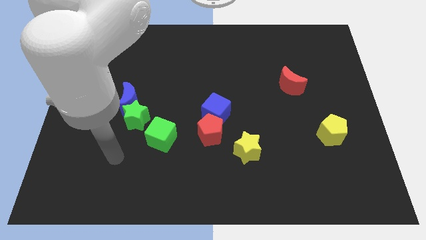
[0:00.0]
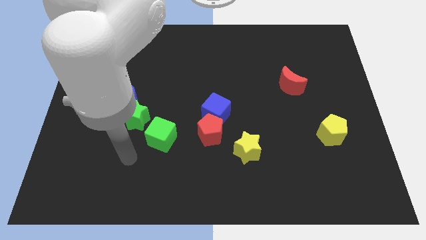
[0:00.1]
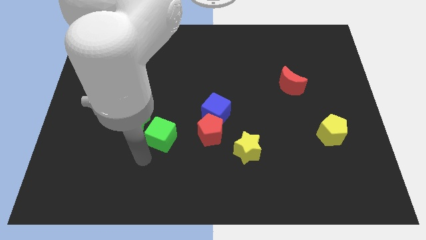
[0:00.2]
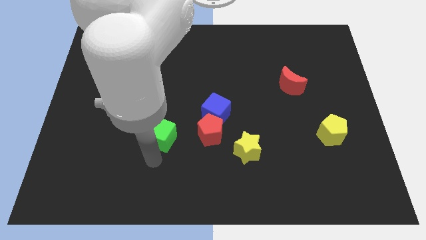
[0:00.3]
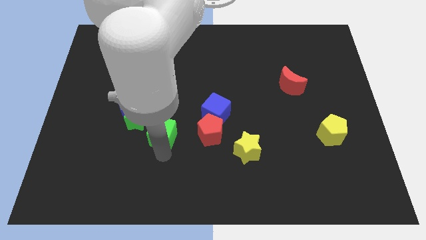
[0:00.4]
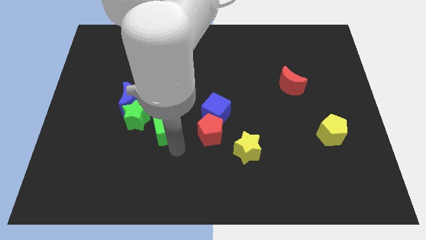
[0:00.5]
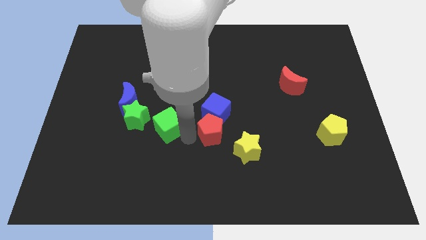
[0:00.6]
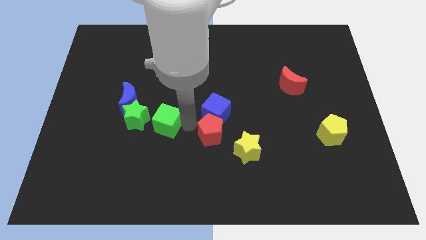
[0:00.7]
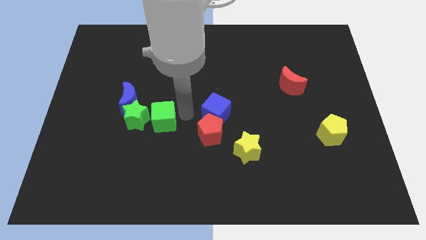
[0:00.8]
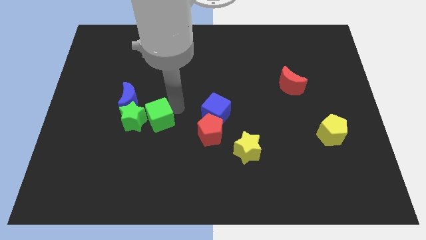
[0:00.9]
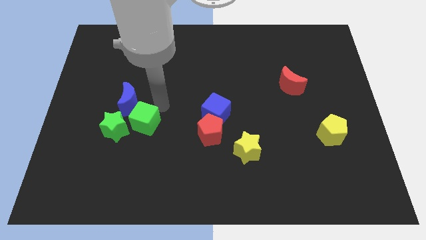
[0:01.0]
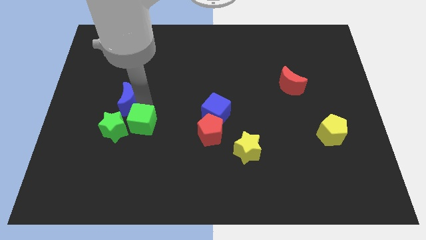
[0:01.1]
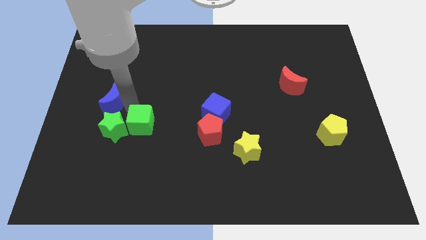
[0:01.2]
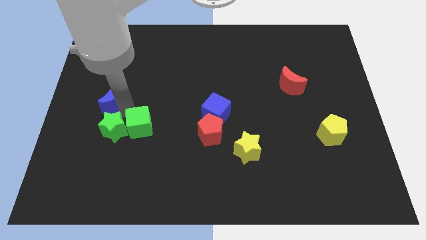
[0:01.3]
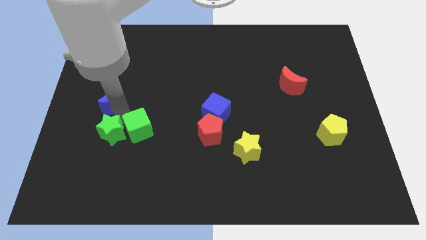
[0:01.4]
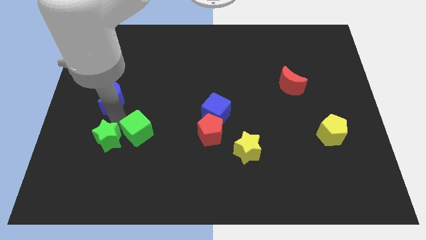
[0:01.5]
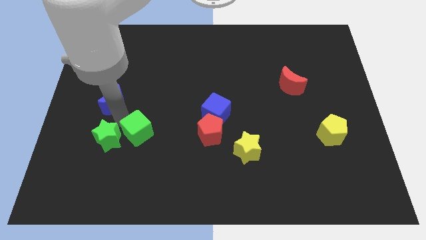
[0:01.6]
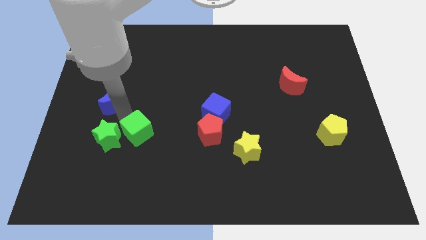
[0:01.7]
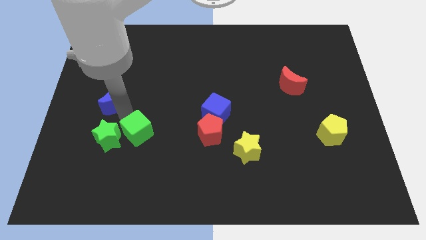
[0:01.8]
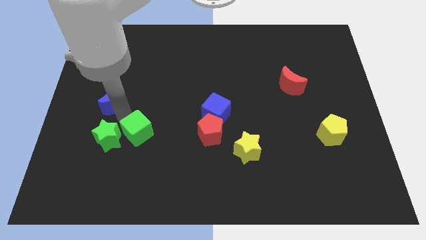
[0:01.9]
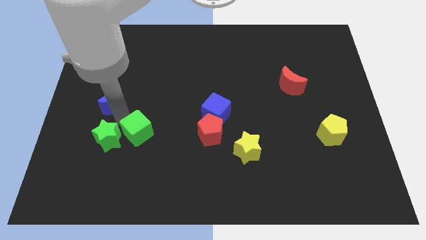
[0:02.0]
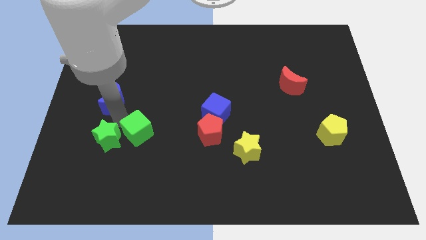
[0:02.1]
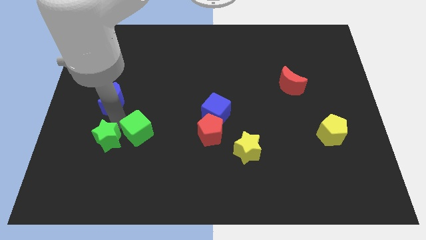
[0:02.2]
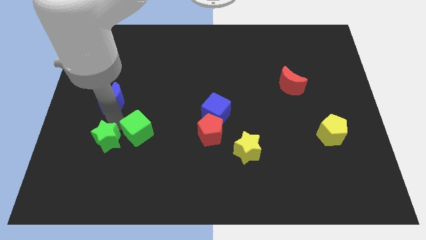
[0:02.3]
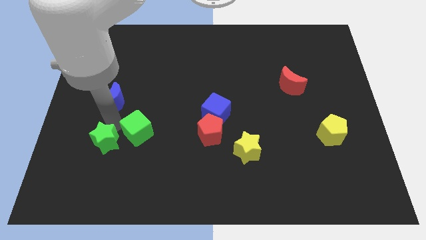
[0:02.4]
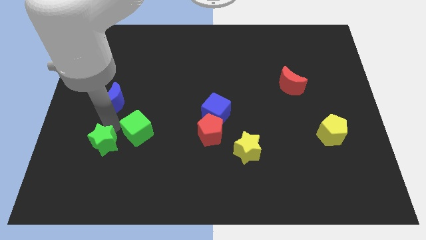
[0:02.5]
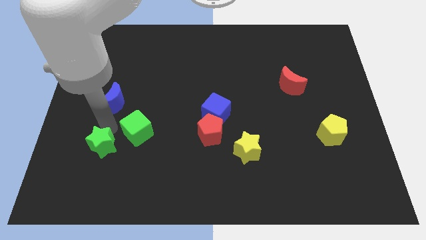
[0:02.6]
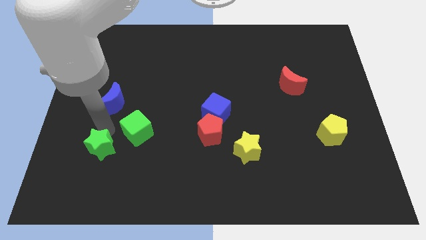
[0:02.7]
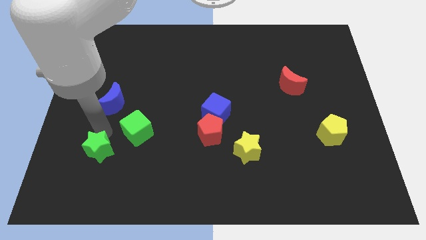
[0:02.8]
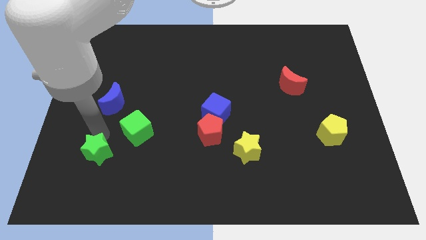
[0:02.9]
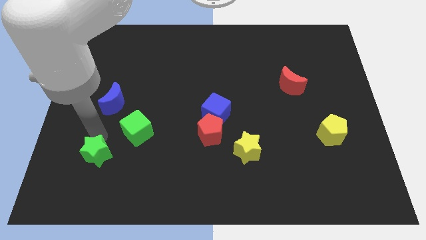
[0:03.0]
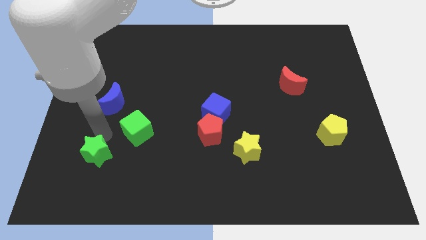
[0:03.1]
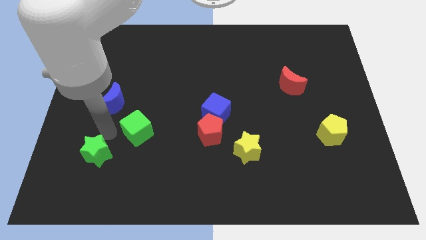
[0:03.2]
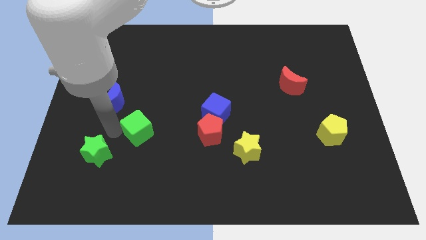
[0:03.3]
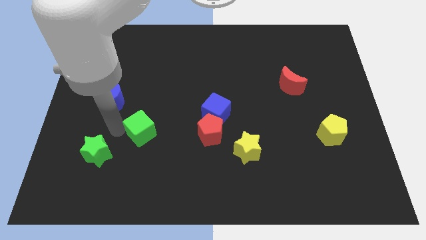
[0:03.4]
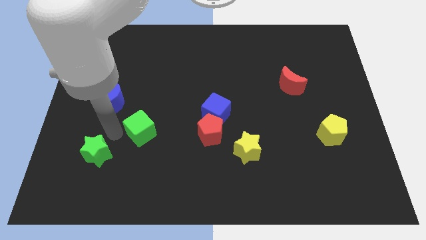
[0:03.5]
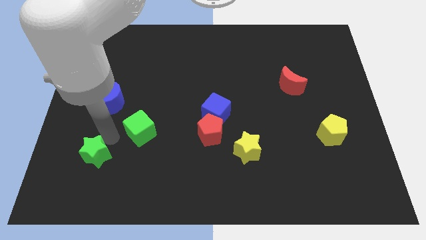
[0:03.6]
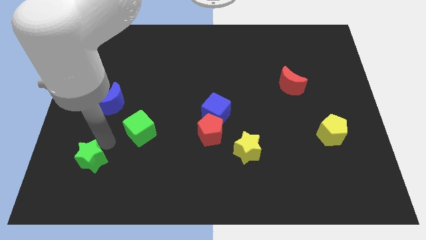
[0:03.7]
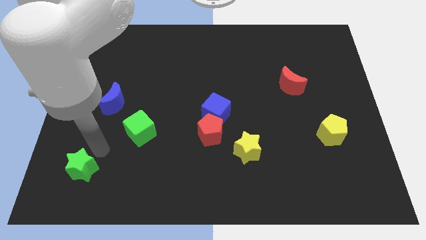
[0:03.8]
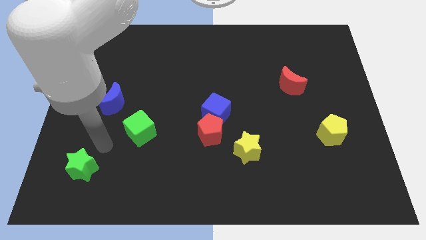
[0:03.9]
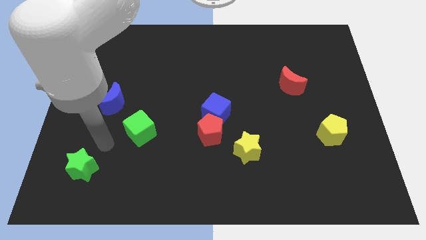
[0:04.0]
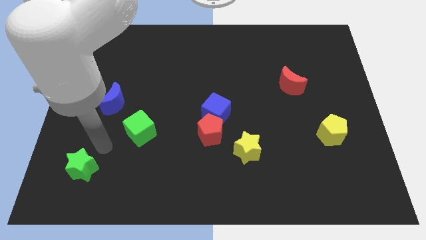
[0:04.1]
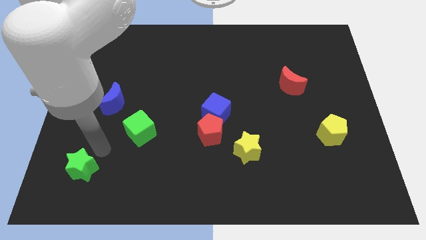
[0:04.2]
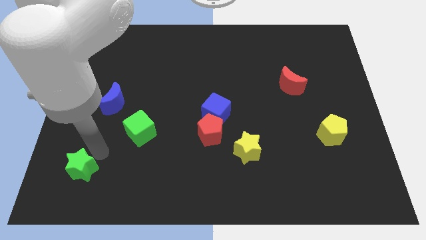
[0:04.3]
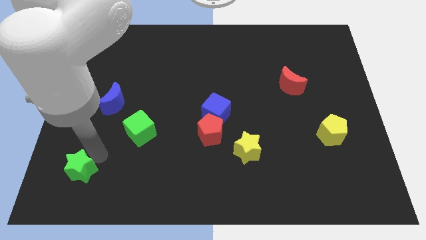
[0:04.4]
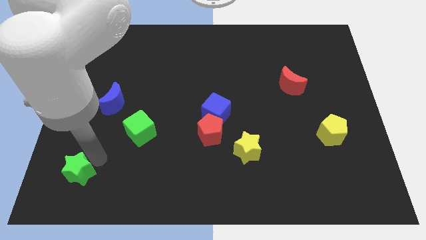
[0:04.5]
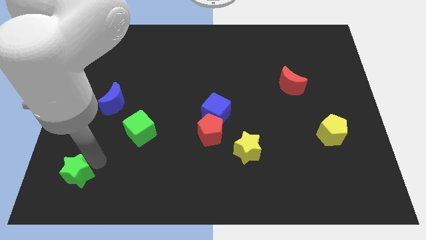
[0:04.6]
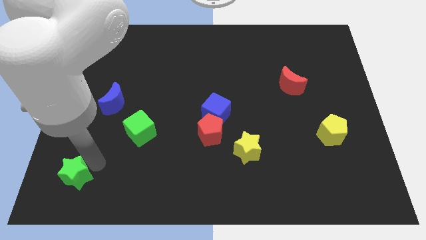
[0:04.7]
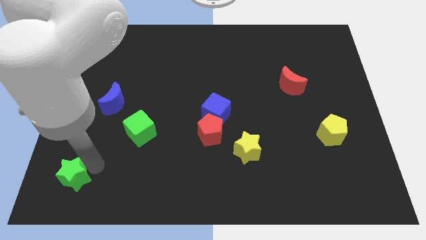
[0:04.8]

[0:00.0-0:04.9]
push the green star to the lower left corner

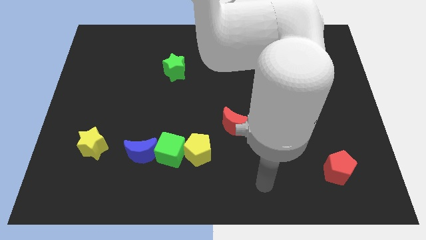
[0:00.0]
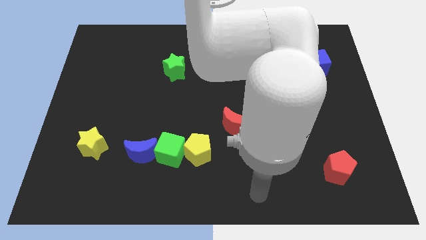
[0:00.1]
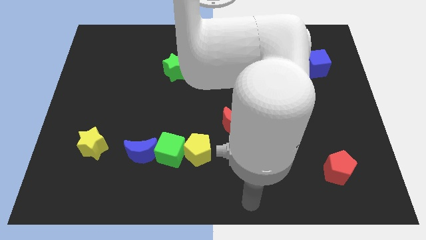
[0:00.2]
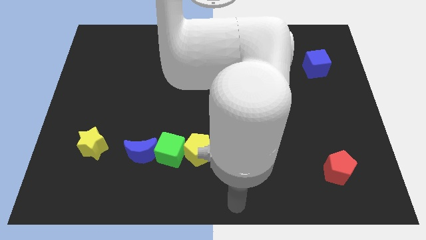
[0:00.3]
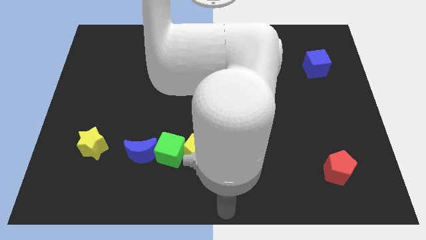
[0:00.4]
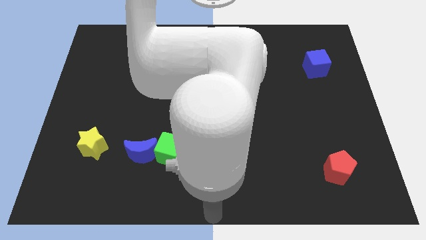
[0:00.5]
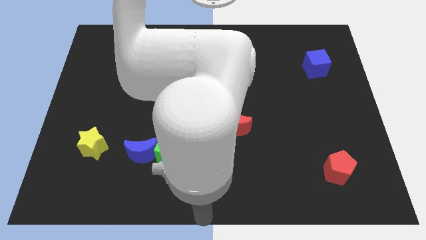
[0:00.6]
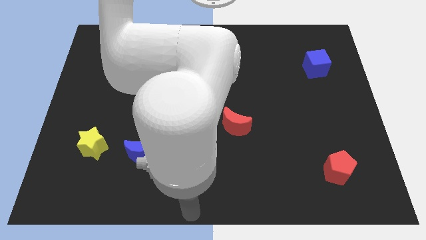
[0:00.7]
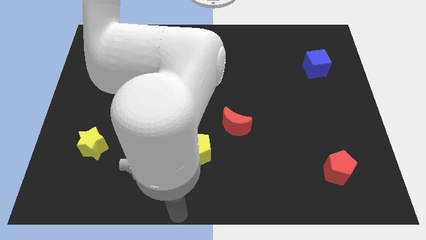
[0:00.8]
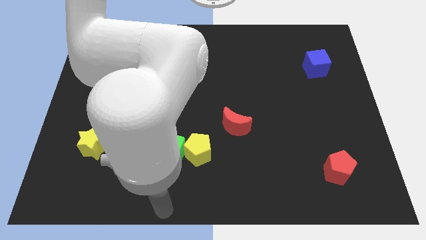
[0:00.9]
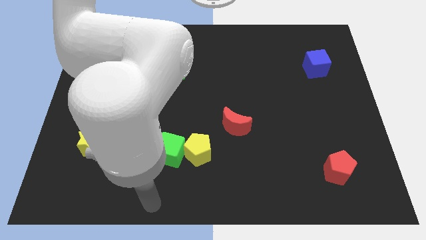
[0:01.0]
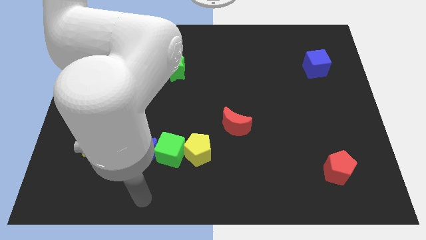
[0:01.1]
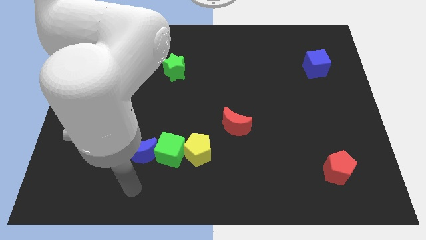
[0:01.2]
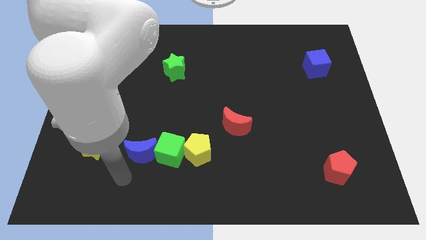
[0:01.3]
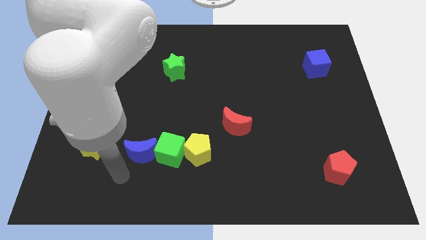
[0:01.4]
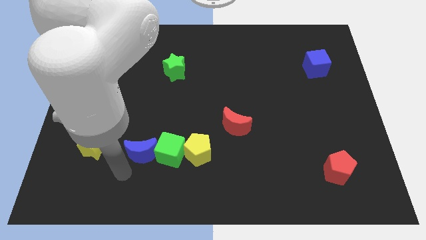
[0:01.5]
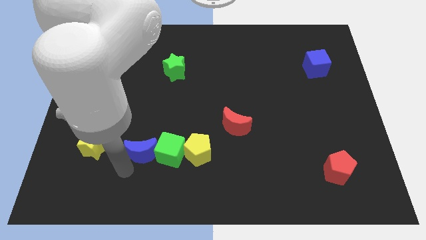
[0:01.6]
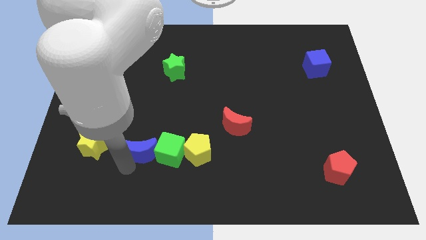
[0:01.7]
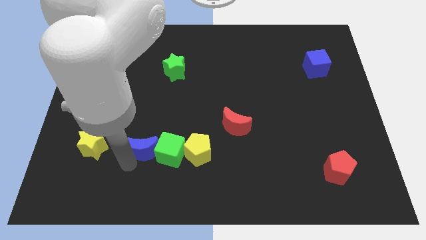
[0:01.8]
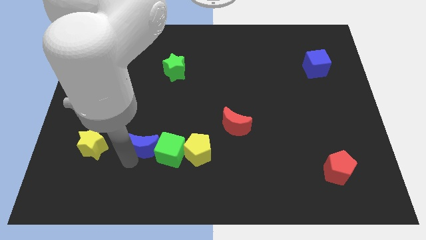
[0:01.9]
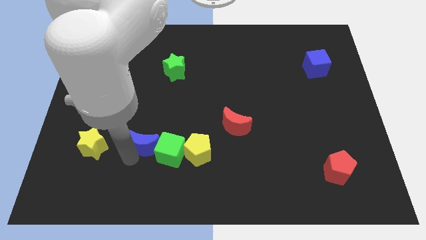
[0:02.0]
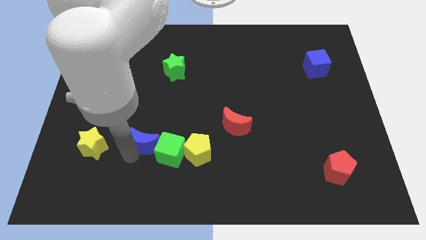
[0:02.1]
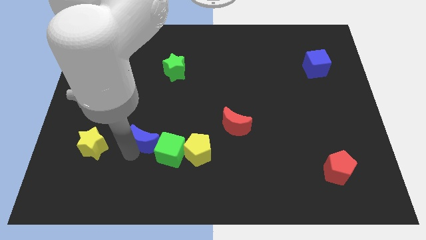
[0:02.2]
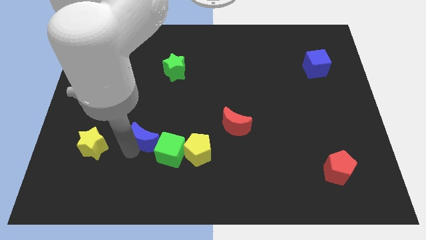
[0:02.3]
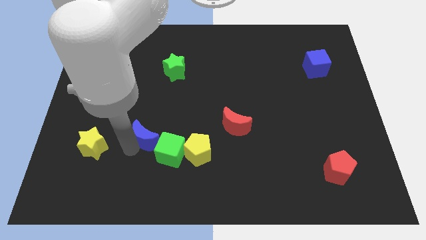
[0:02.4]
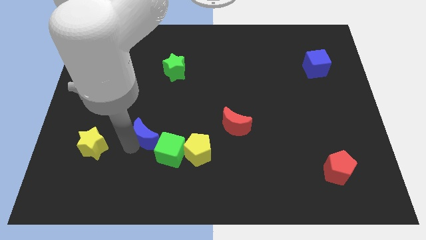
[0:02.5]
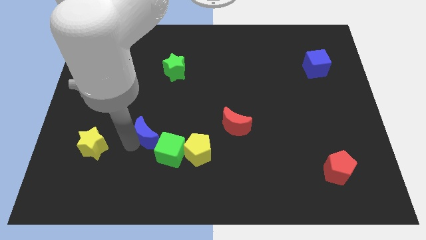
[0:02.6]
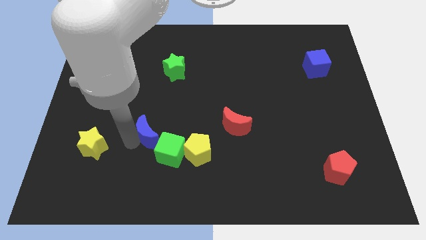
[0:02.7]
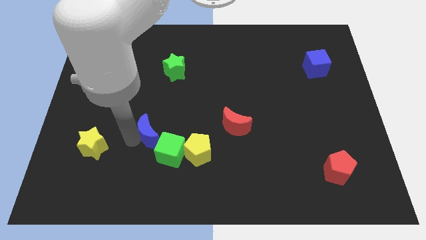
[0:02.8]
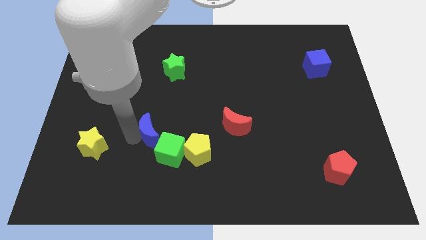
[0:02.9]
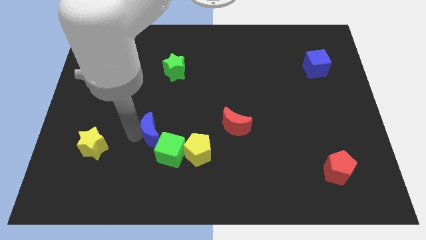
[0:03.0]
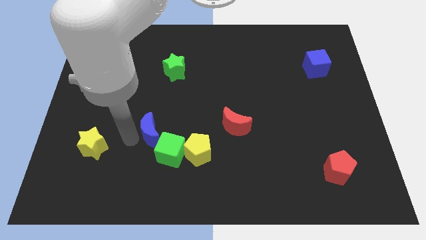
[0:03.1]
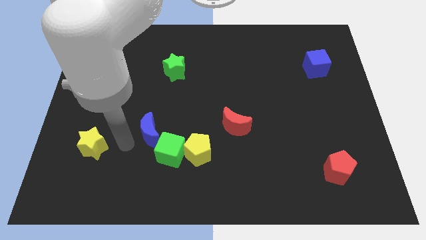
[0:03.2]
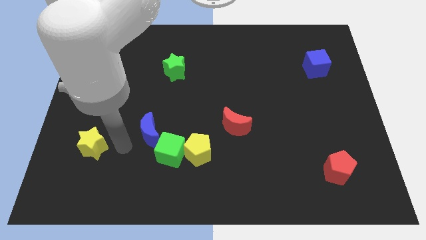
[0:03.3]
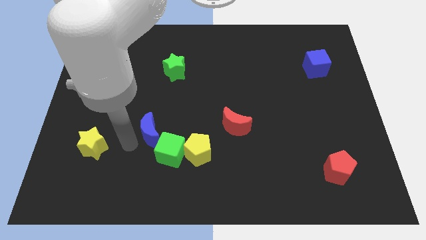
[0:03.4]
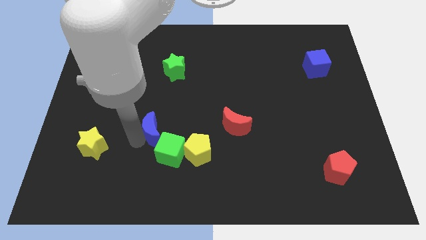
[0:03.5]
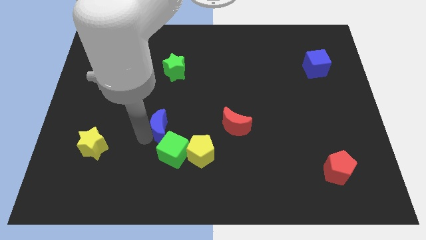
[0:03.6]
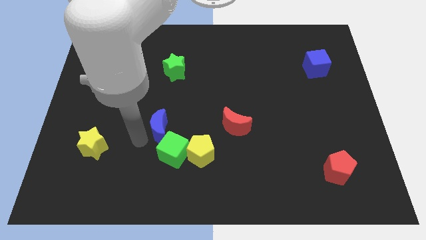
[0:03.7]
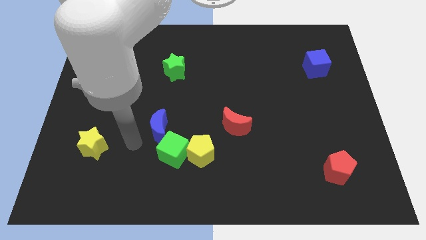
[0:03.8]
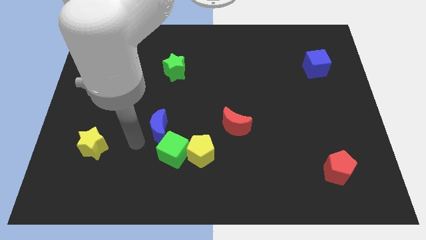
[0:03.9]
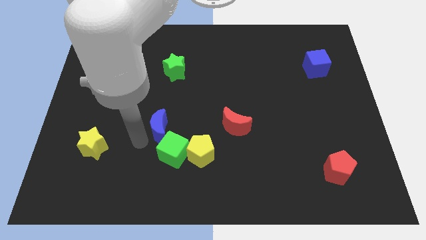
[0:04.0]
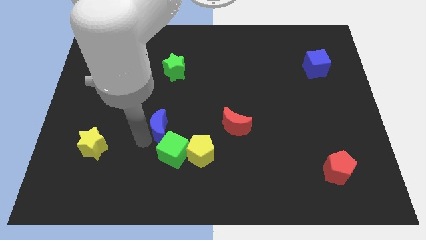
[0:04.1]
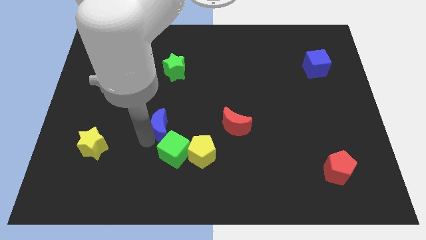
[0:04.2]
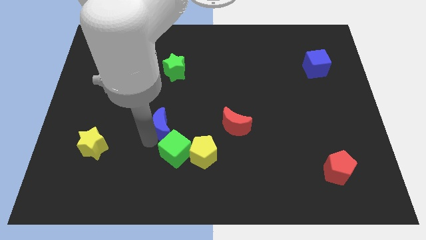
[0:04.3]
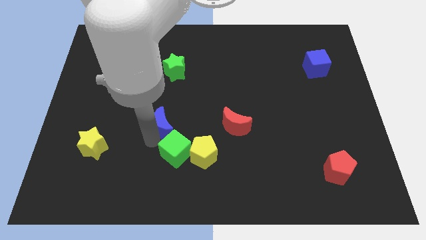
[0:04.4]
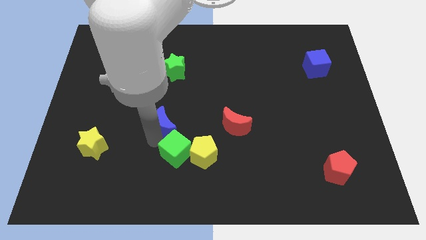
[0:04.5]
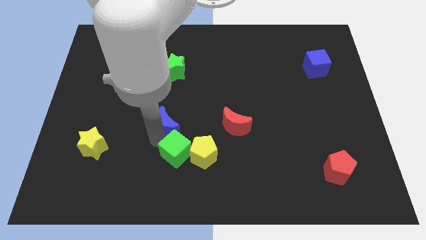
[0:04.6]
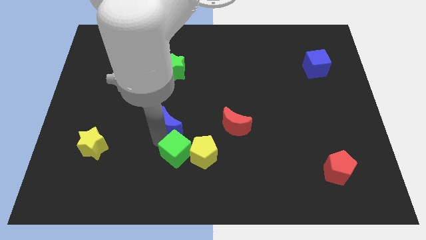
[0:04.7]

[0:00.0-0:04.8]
put the blue moon to the center
